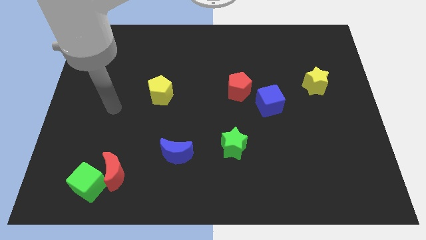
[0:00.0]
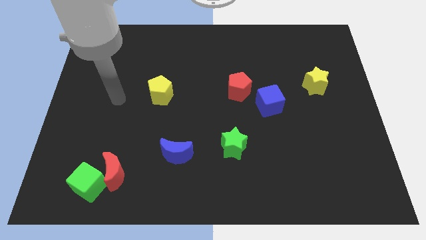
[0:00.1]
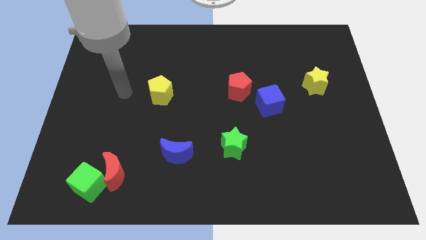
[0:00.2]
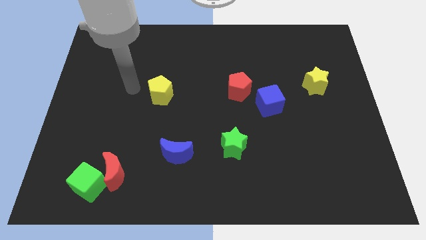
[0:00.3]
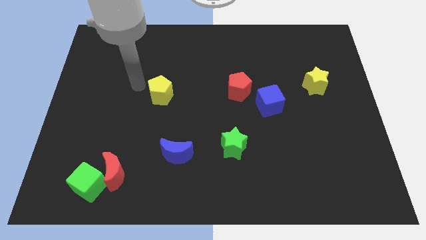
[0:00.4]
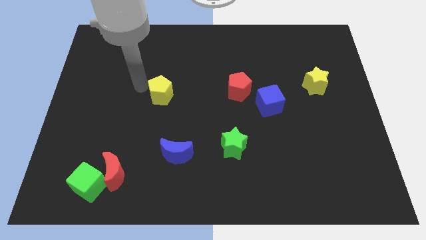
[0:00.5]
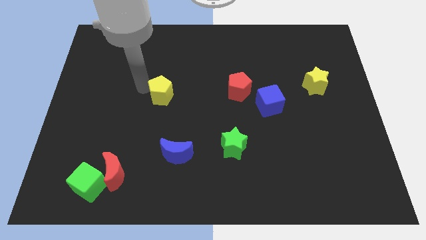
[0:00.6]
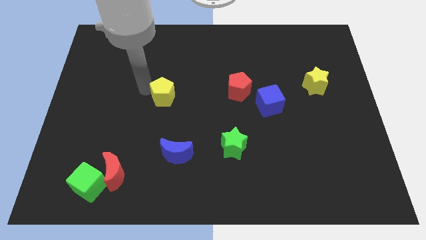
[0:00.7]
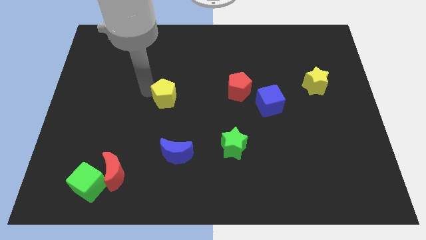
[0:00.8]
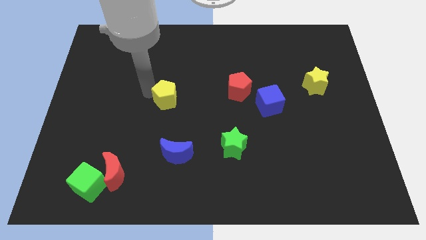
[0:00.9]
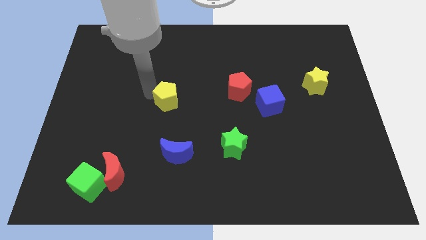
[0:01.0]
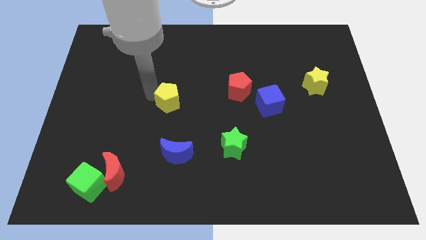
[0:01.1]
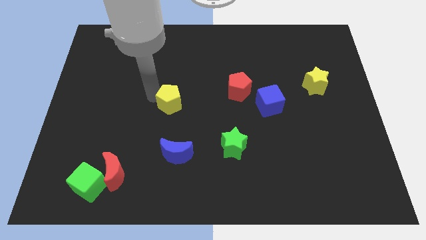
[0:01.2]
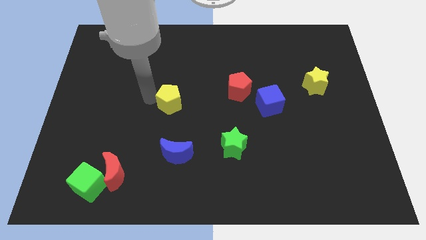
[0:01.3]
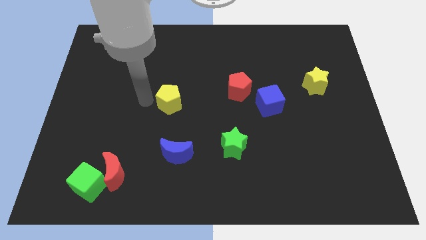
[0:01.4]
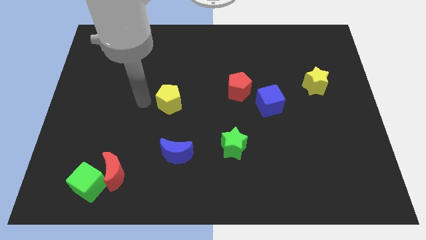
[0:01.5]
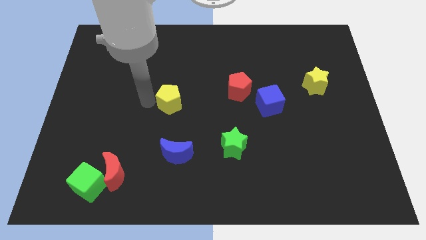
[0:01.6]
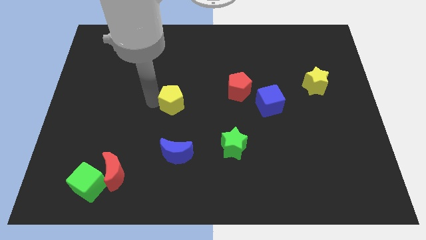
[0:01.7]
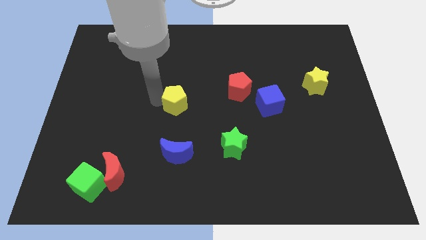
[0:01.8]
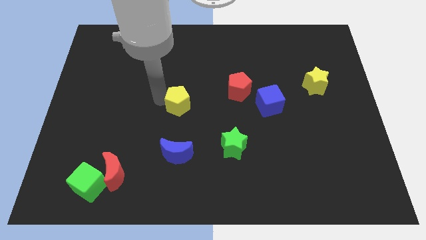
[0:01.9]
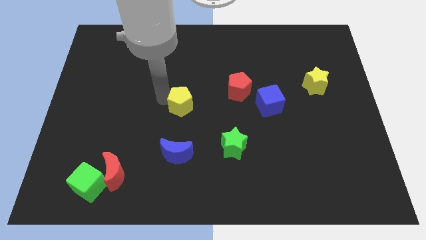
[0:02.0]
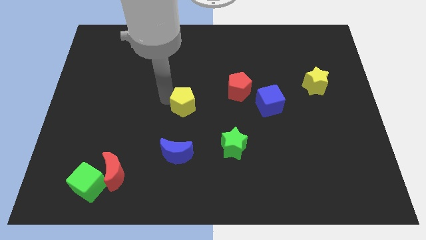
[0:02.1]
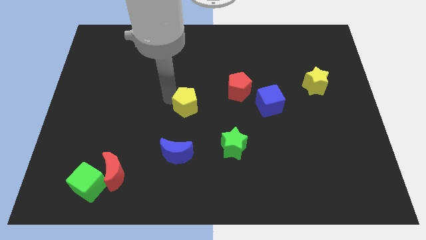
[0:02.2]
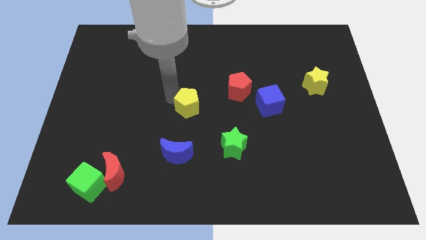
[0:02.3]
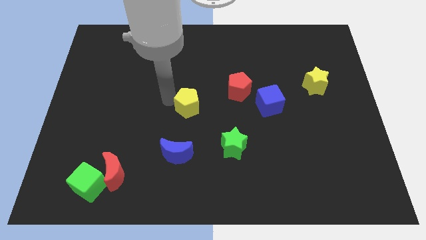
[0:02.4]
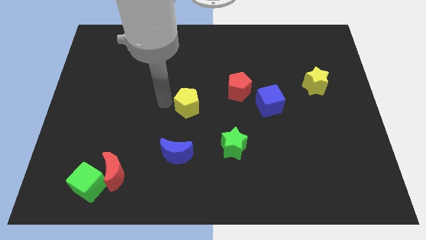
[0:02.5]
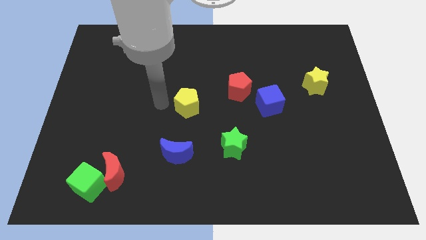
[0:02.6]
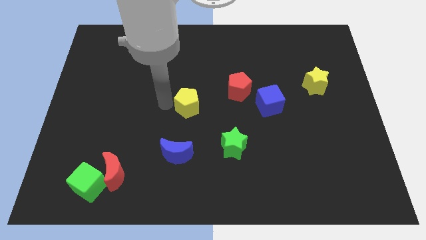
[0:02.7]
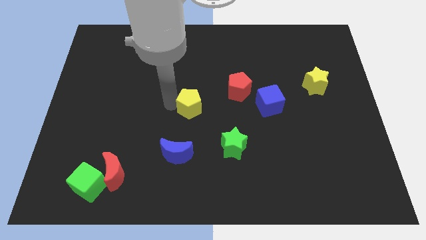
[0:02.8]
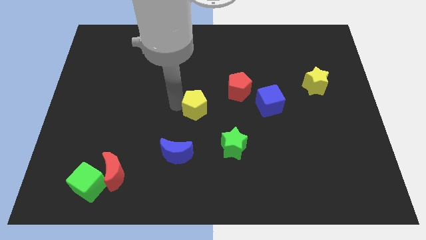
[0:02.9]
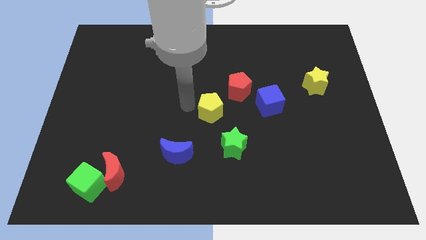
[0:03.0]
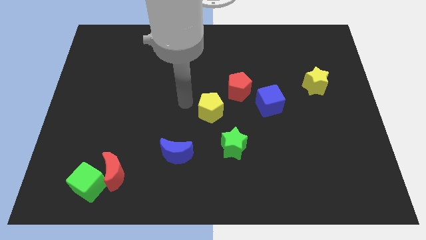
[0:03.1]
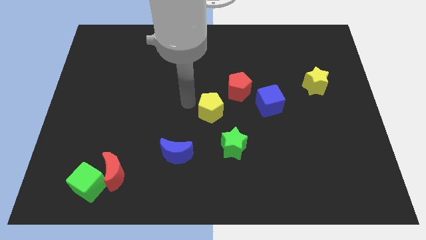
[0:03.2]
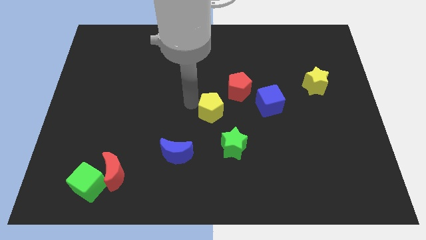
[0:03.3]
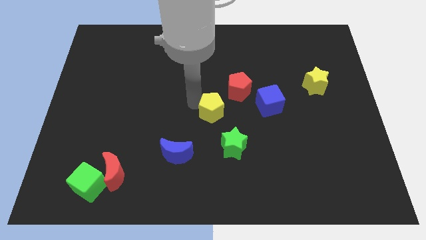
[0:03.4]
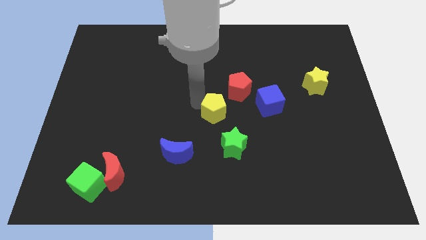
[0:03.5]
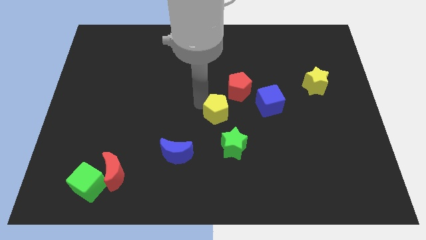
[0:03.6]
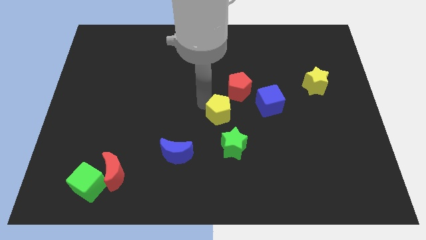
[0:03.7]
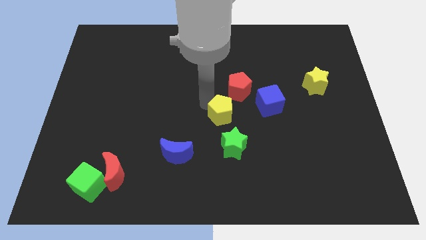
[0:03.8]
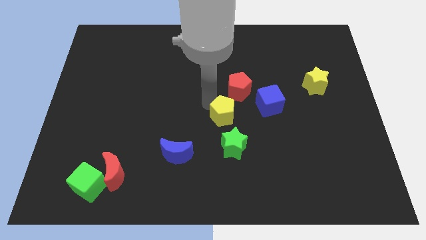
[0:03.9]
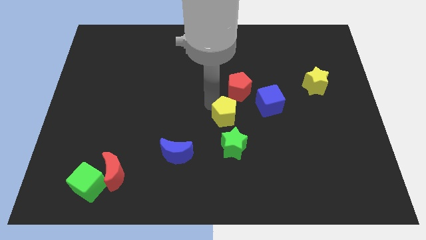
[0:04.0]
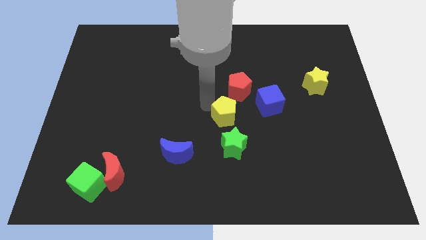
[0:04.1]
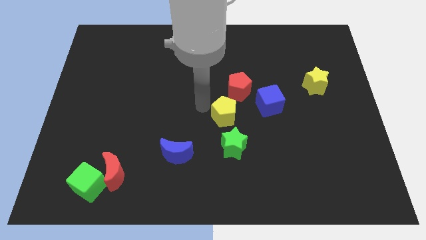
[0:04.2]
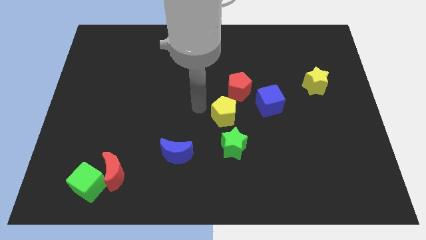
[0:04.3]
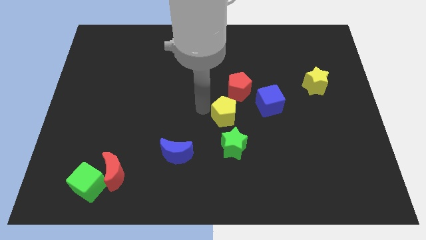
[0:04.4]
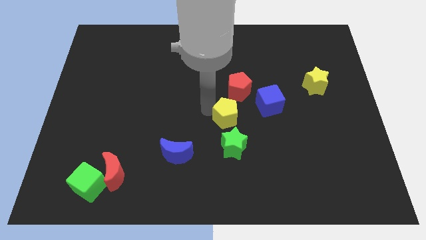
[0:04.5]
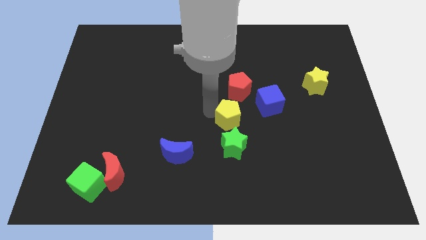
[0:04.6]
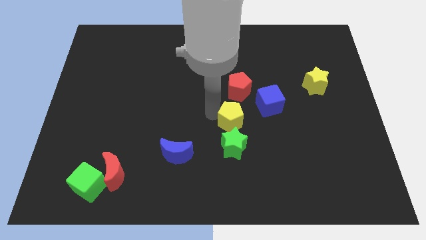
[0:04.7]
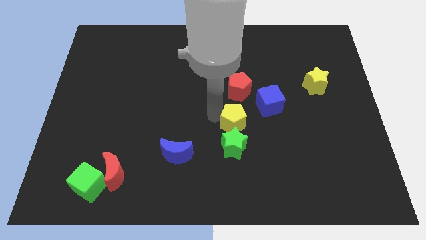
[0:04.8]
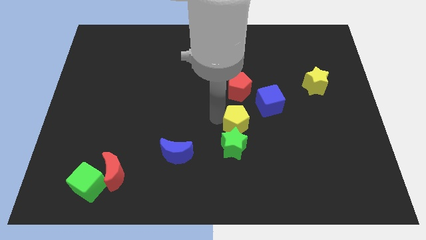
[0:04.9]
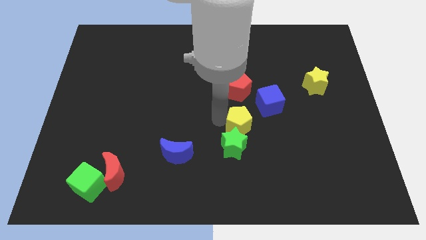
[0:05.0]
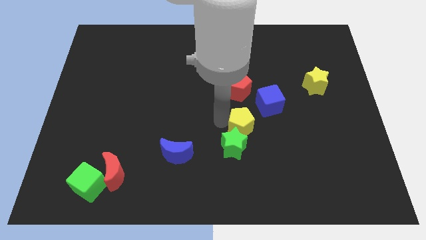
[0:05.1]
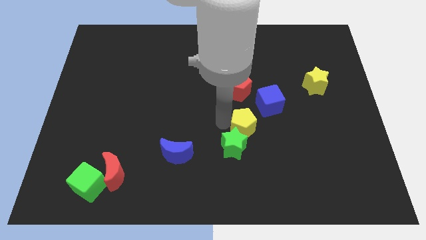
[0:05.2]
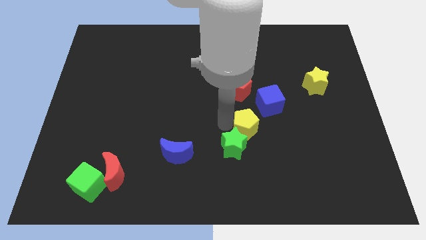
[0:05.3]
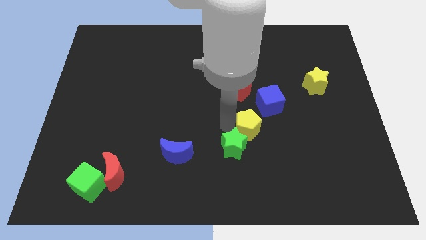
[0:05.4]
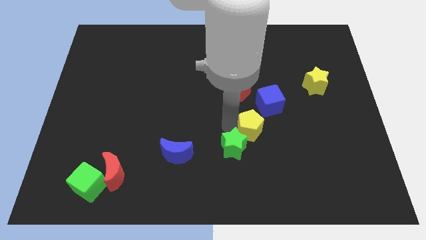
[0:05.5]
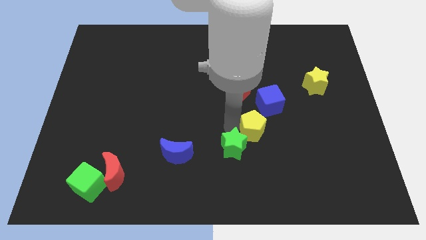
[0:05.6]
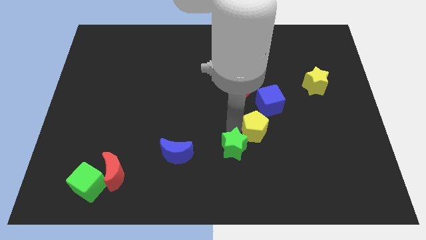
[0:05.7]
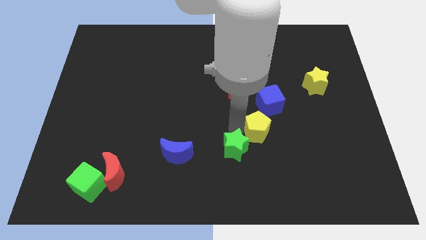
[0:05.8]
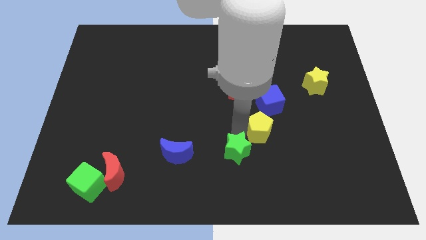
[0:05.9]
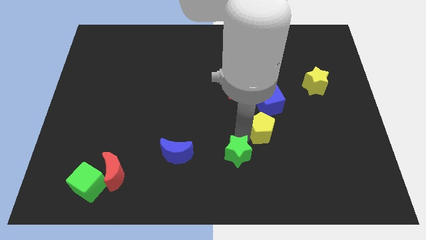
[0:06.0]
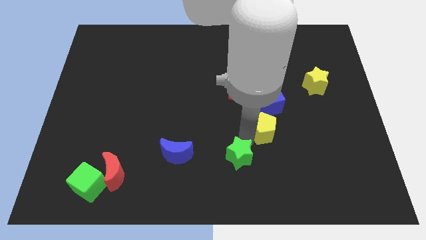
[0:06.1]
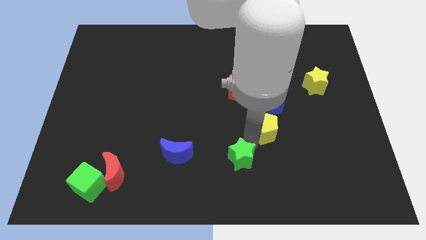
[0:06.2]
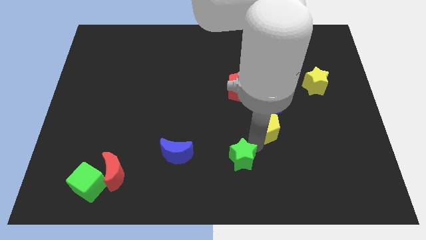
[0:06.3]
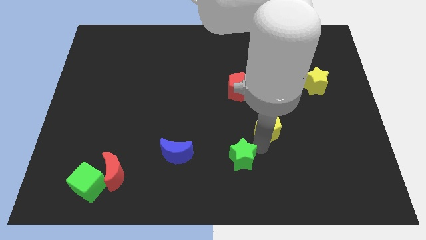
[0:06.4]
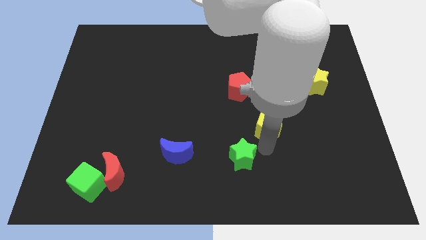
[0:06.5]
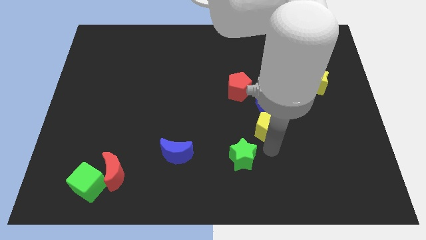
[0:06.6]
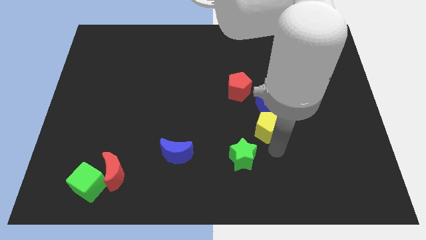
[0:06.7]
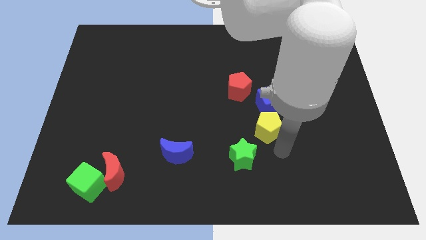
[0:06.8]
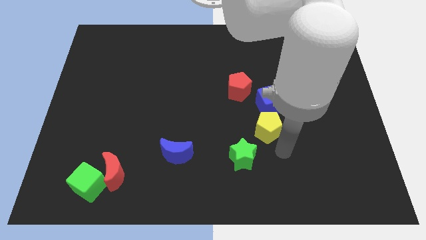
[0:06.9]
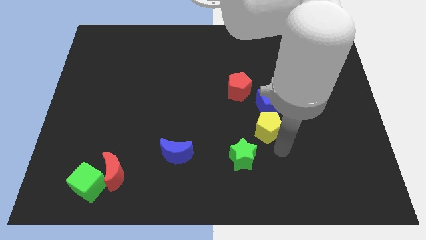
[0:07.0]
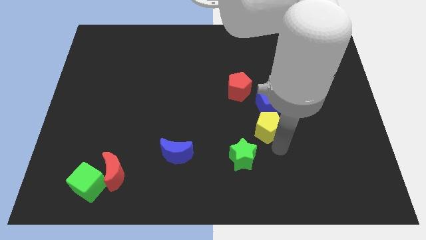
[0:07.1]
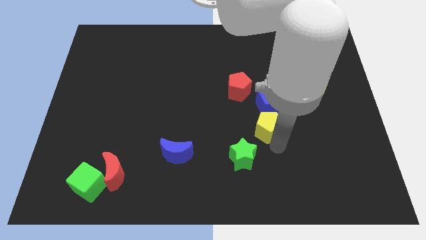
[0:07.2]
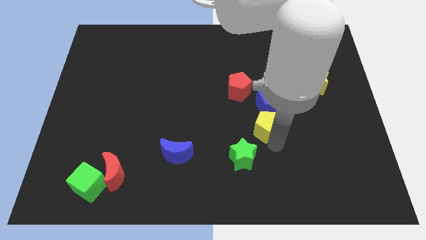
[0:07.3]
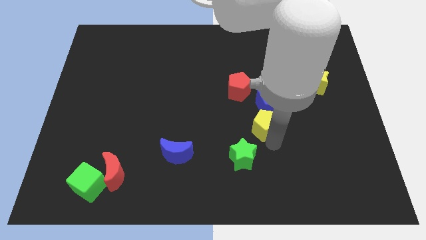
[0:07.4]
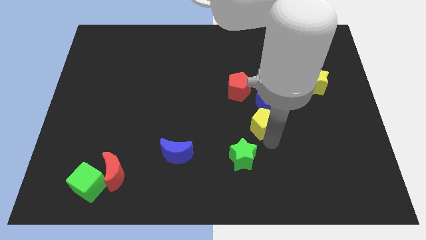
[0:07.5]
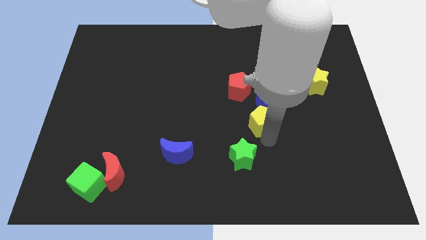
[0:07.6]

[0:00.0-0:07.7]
move the yellow pentagon towards the blue cube
